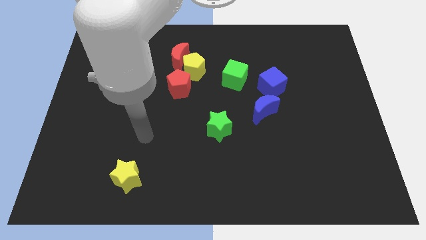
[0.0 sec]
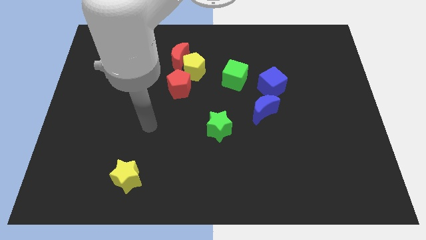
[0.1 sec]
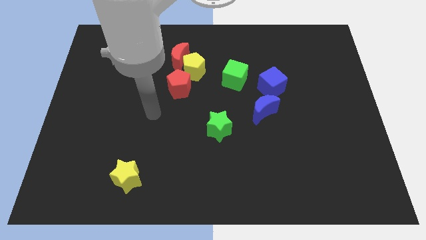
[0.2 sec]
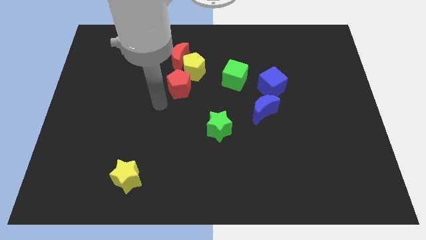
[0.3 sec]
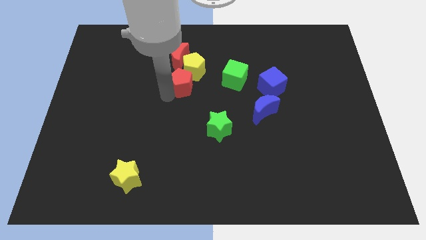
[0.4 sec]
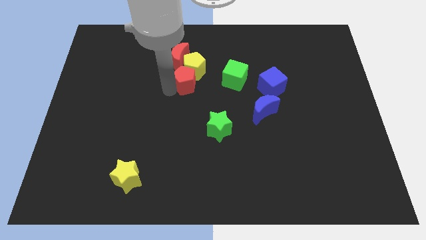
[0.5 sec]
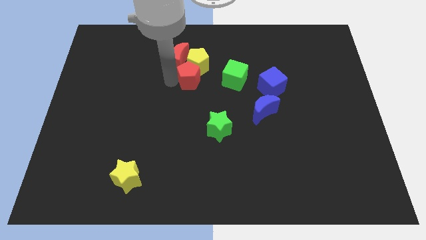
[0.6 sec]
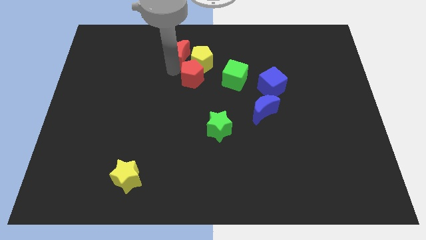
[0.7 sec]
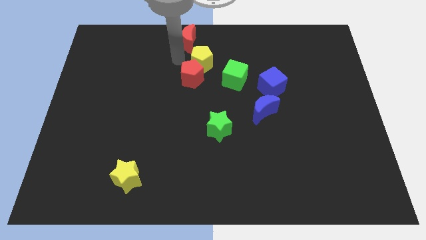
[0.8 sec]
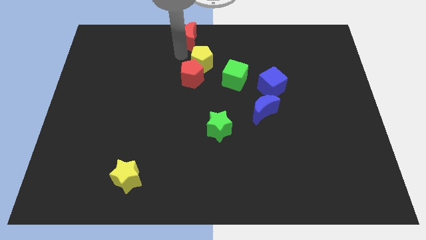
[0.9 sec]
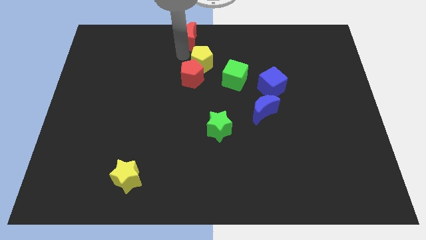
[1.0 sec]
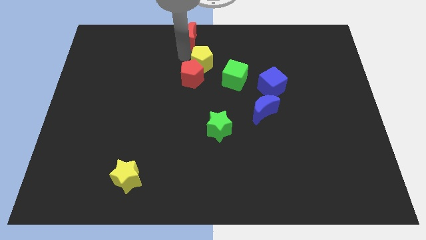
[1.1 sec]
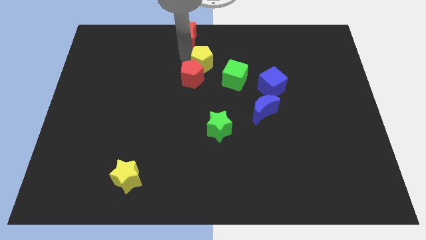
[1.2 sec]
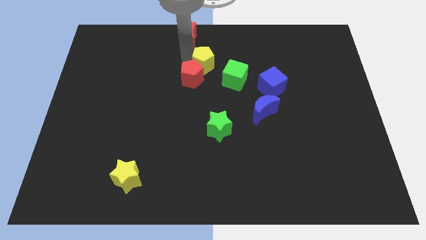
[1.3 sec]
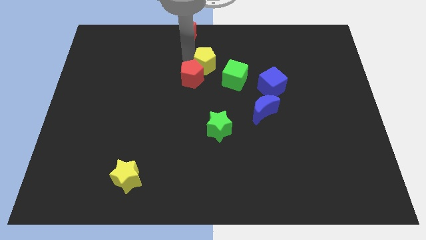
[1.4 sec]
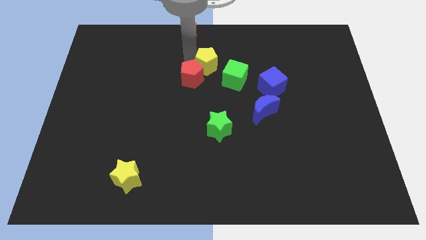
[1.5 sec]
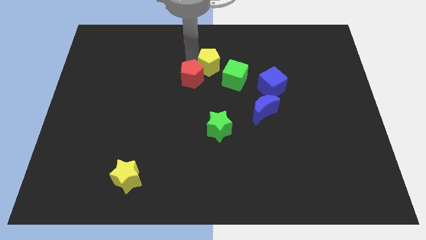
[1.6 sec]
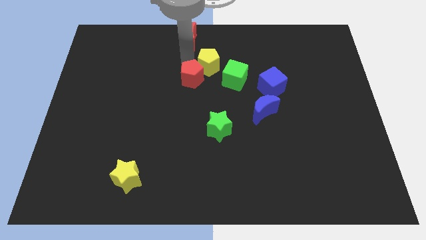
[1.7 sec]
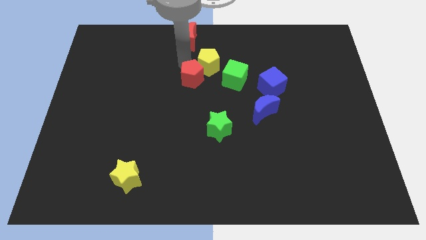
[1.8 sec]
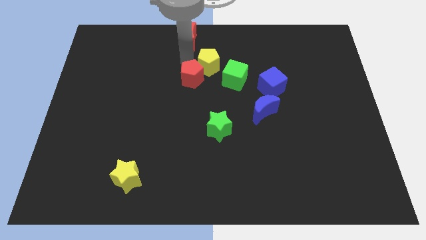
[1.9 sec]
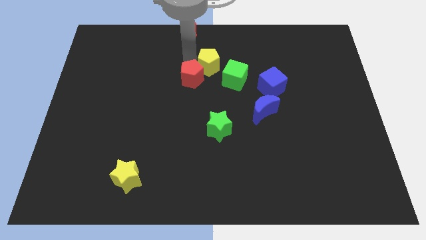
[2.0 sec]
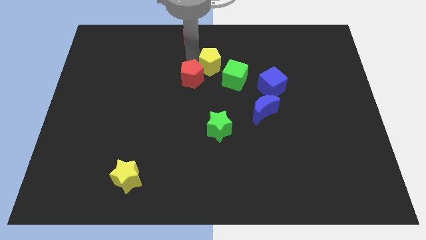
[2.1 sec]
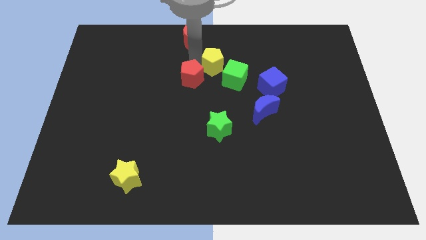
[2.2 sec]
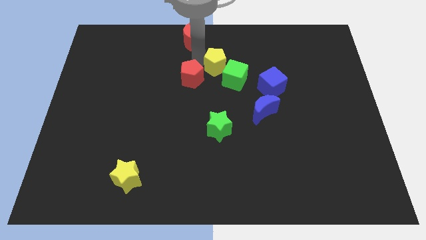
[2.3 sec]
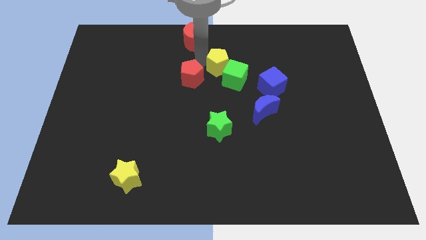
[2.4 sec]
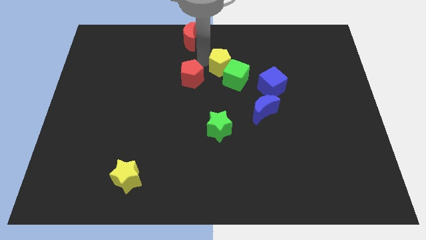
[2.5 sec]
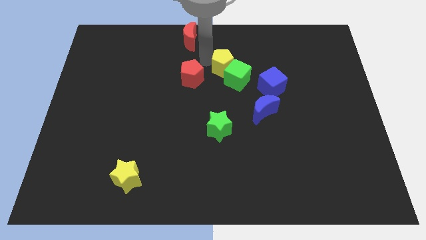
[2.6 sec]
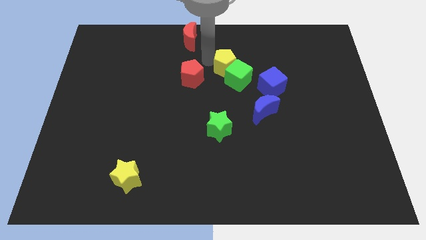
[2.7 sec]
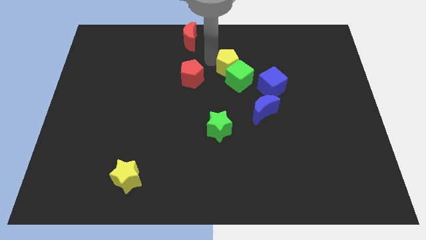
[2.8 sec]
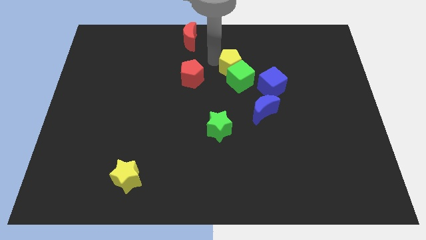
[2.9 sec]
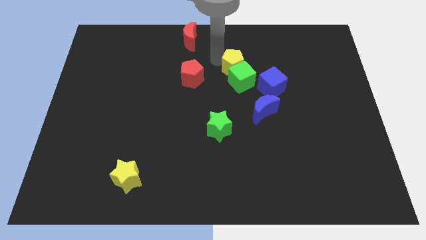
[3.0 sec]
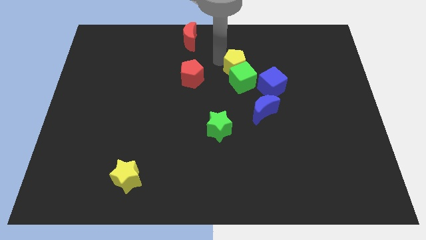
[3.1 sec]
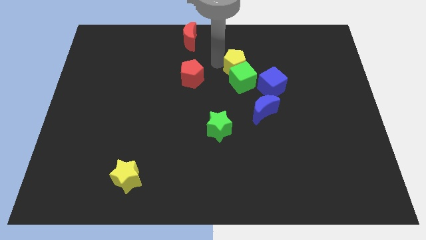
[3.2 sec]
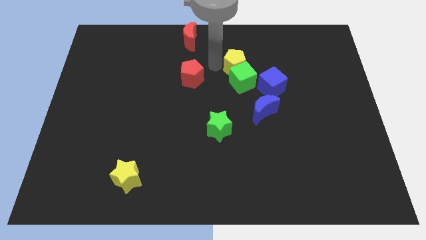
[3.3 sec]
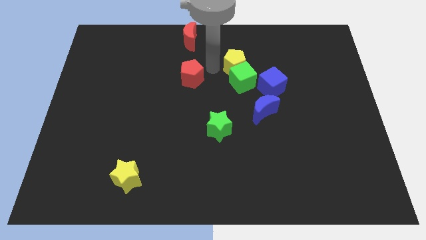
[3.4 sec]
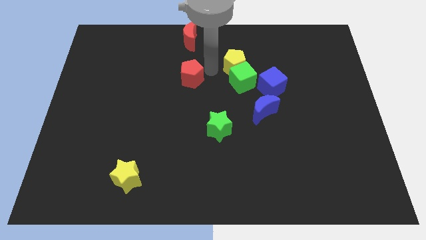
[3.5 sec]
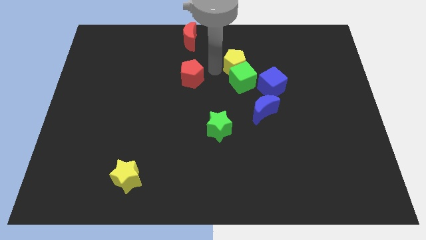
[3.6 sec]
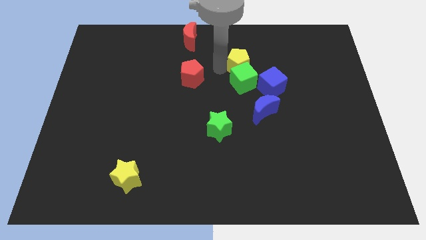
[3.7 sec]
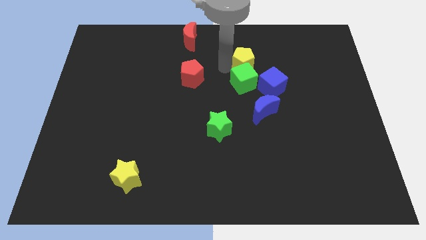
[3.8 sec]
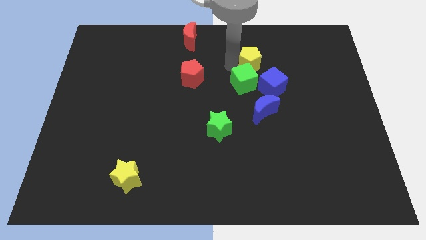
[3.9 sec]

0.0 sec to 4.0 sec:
push the yellow pentagon above the blue cube

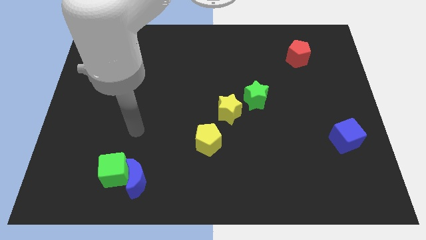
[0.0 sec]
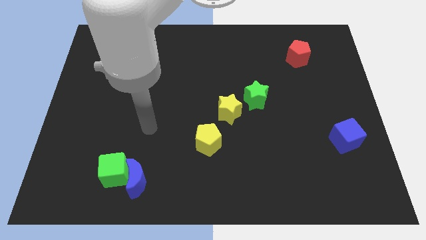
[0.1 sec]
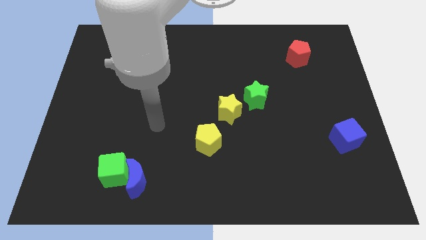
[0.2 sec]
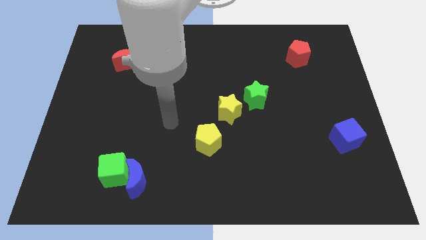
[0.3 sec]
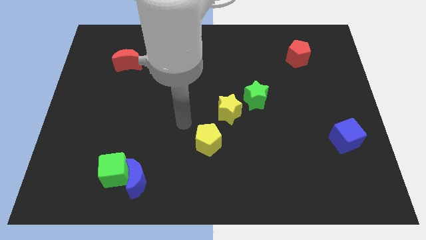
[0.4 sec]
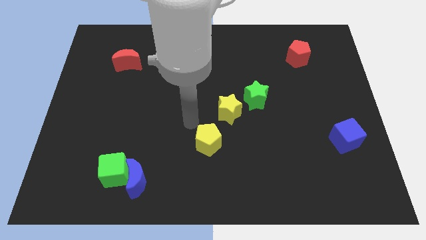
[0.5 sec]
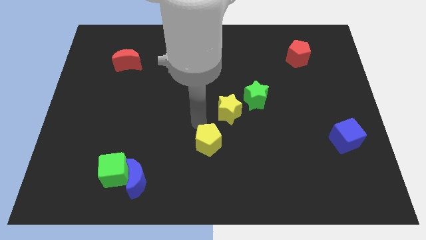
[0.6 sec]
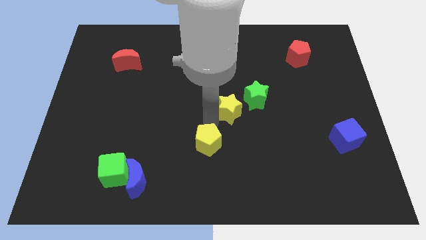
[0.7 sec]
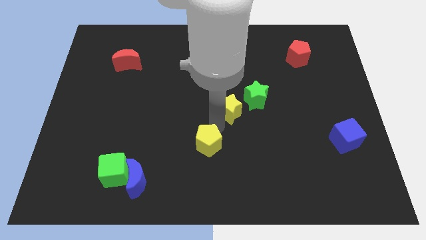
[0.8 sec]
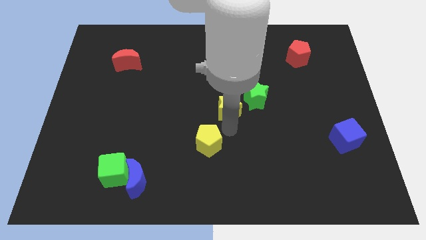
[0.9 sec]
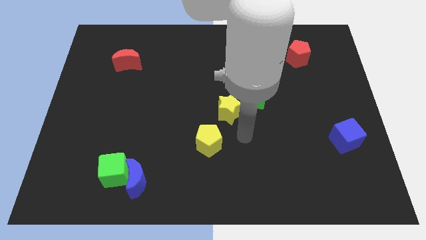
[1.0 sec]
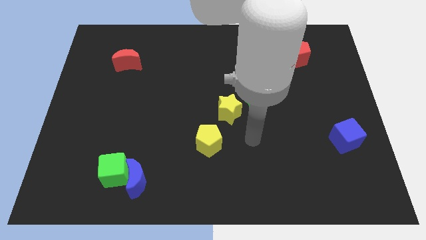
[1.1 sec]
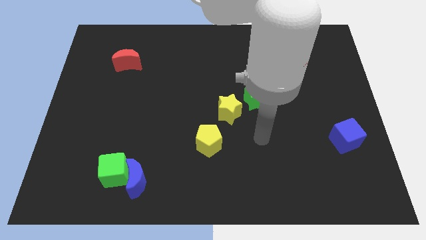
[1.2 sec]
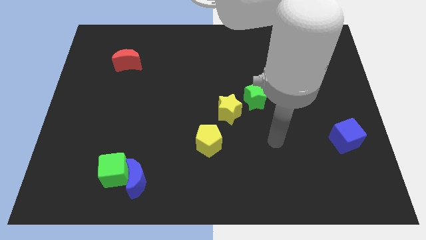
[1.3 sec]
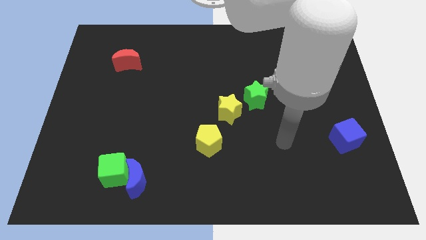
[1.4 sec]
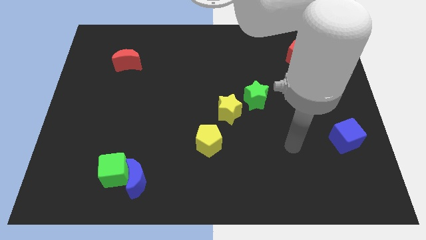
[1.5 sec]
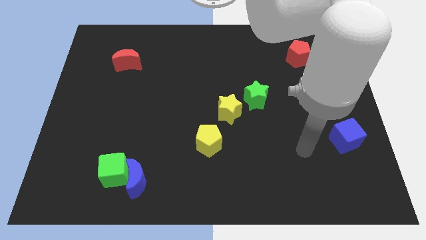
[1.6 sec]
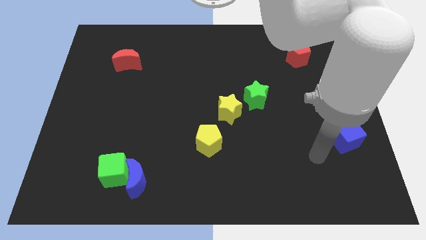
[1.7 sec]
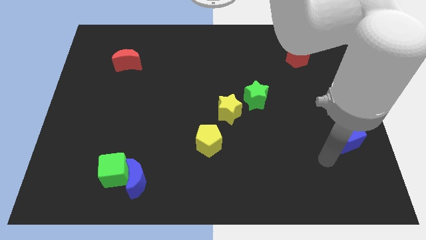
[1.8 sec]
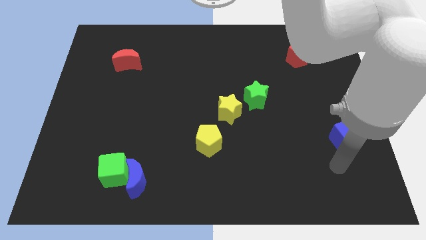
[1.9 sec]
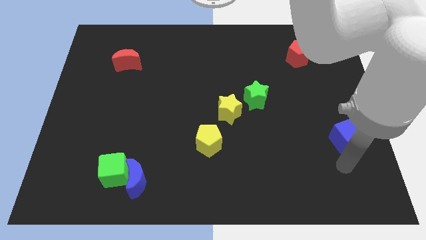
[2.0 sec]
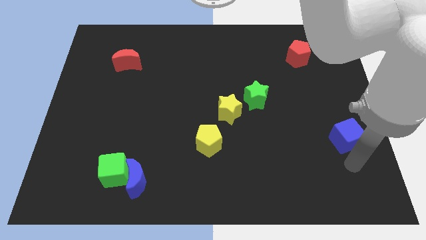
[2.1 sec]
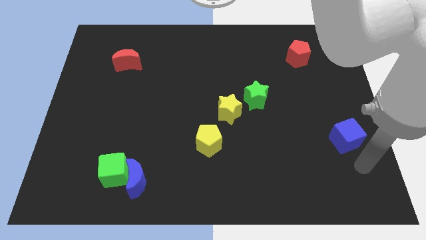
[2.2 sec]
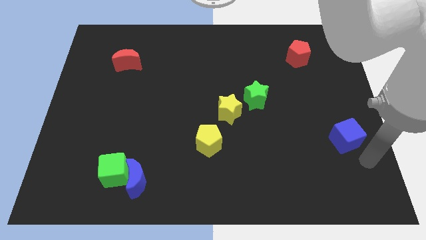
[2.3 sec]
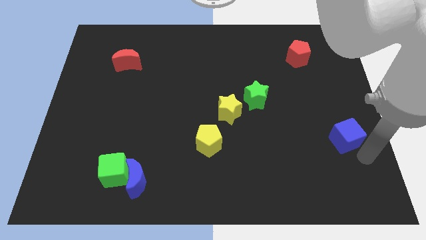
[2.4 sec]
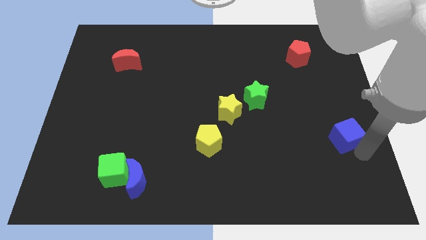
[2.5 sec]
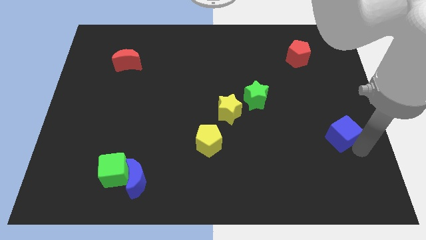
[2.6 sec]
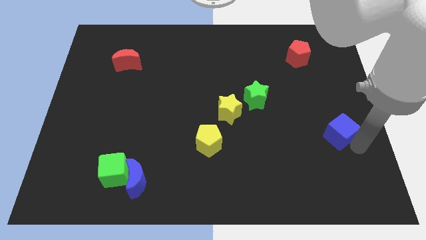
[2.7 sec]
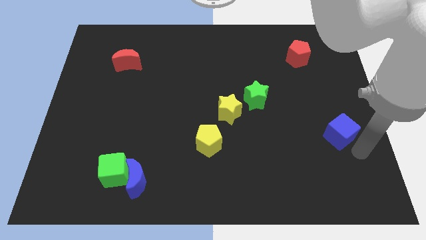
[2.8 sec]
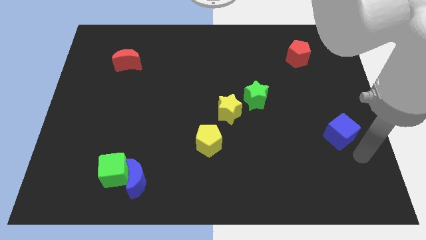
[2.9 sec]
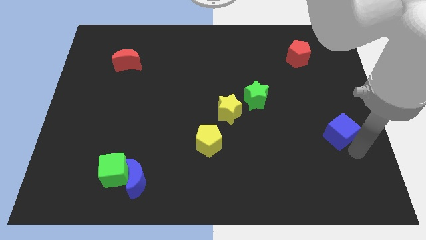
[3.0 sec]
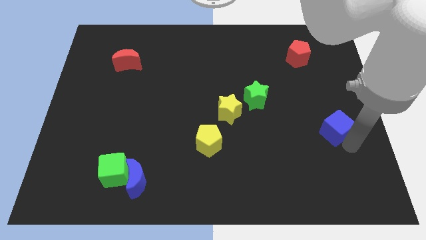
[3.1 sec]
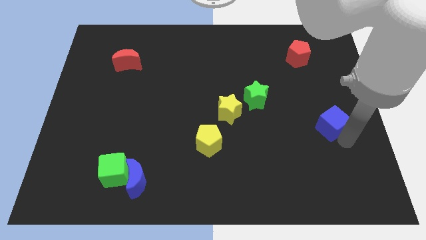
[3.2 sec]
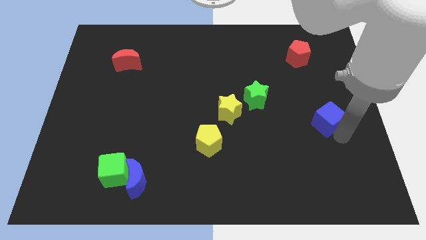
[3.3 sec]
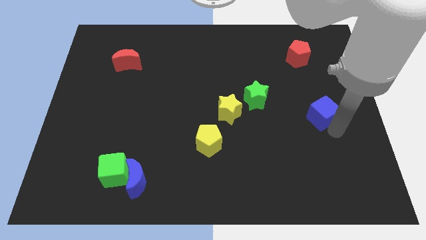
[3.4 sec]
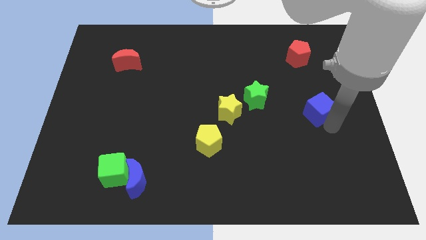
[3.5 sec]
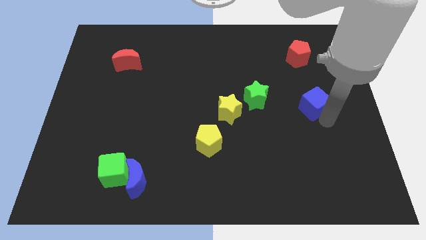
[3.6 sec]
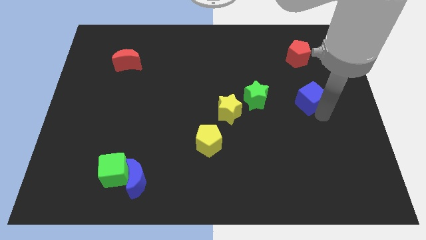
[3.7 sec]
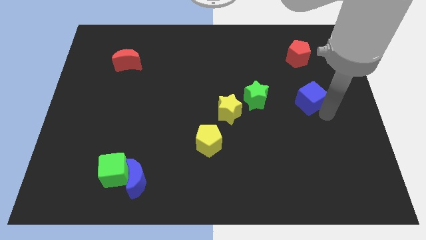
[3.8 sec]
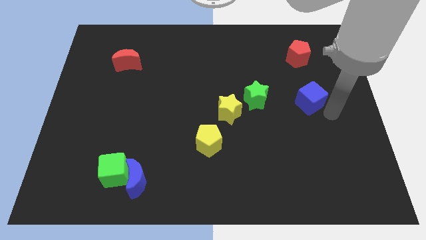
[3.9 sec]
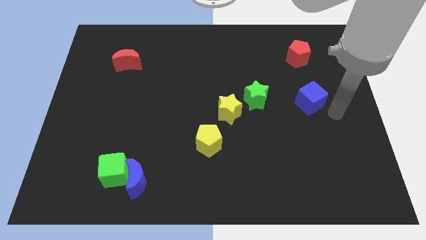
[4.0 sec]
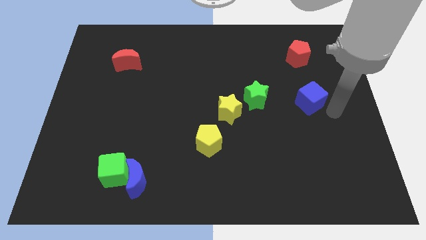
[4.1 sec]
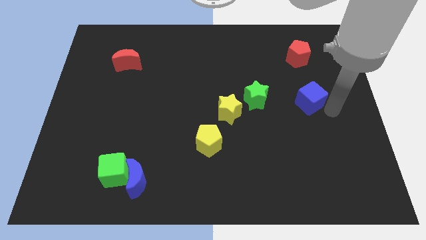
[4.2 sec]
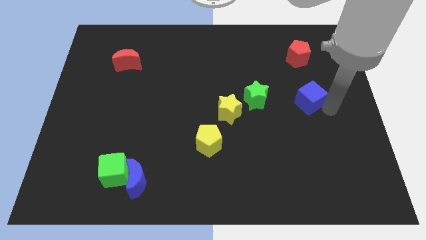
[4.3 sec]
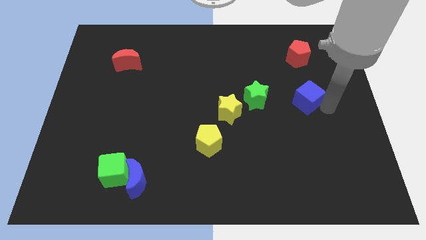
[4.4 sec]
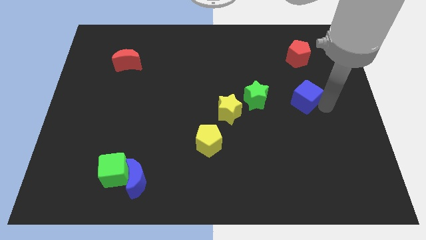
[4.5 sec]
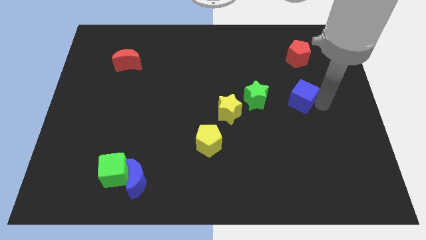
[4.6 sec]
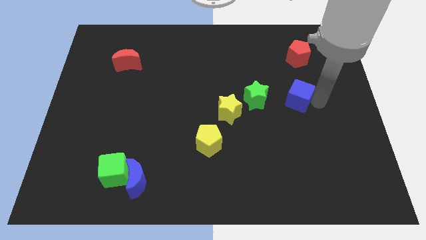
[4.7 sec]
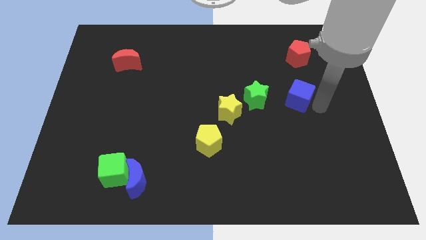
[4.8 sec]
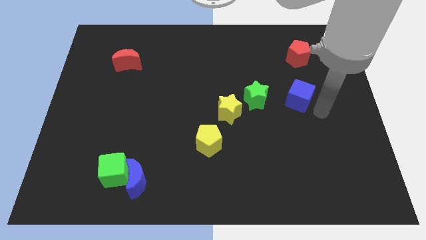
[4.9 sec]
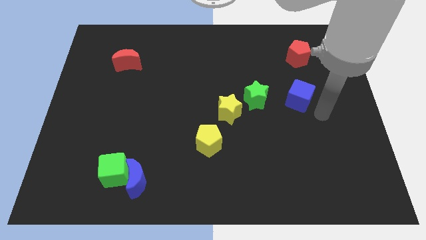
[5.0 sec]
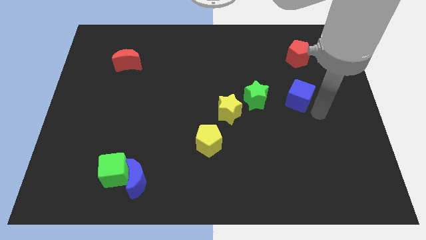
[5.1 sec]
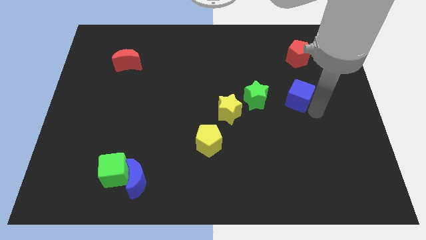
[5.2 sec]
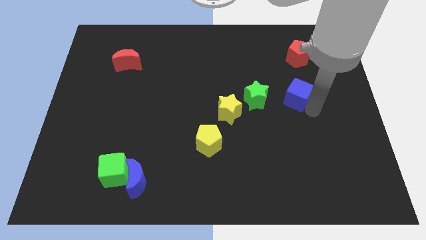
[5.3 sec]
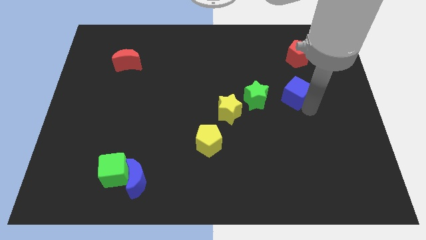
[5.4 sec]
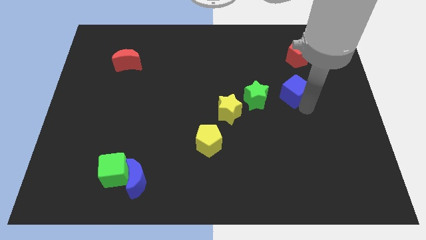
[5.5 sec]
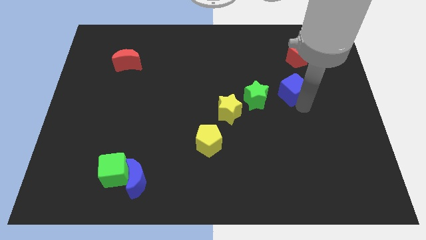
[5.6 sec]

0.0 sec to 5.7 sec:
slide the blue cube diagonally up and to the right of the green star
